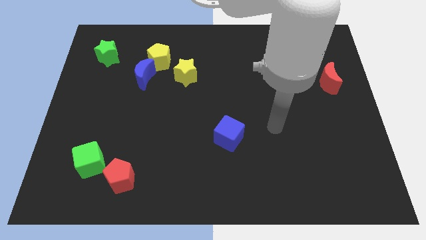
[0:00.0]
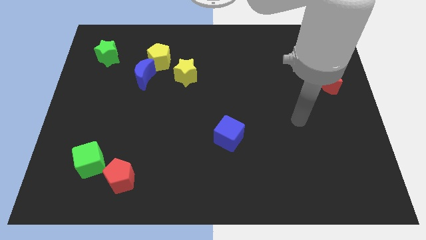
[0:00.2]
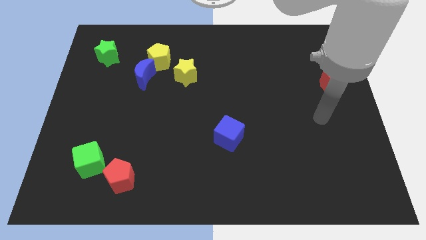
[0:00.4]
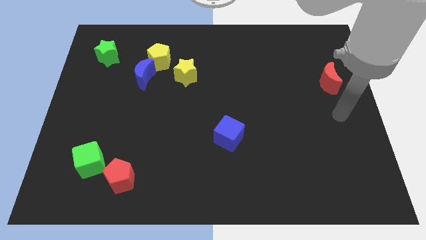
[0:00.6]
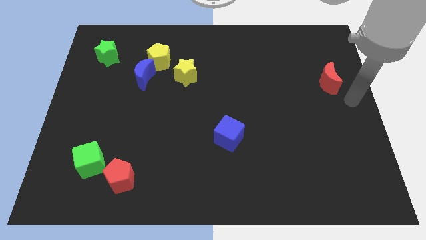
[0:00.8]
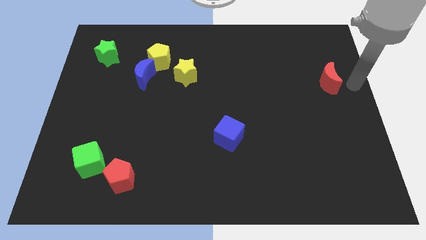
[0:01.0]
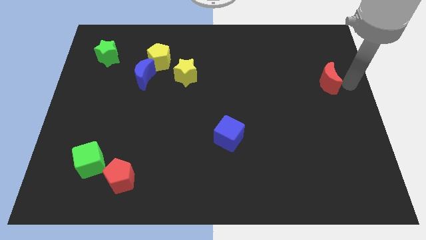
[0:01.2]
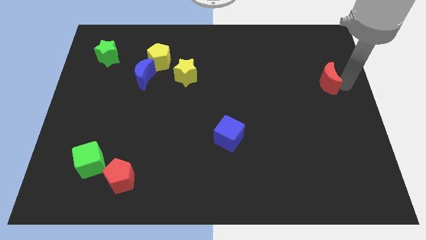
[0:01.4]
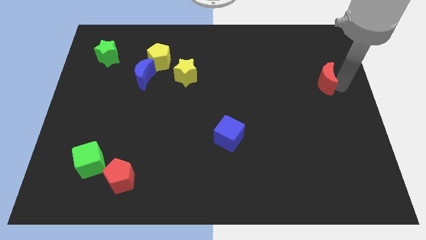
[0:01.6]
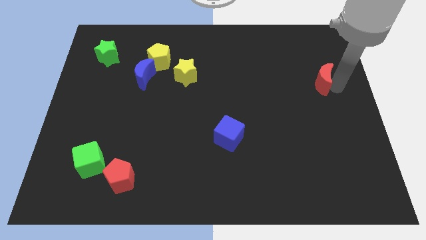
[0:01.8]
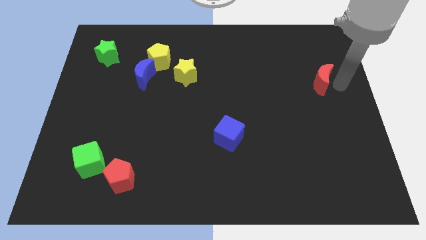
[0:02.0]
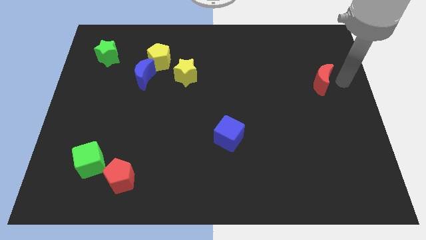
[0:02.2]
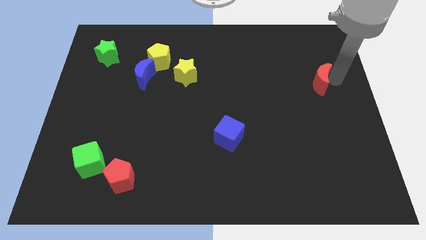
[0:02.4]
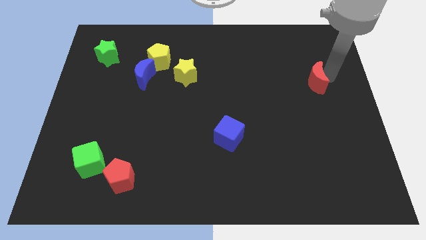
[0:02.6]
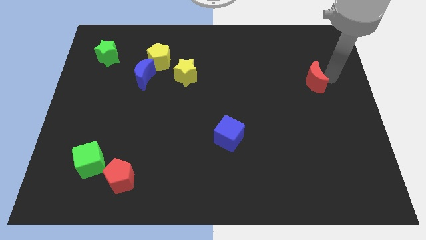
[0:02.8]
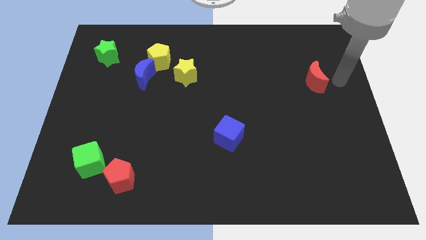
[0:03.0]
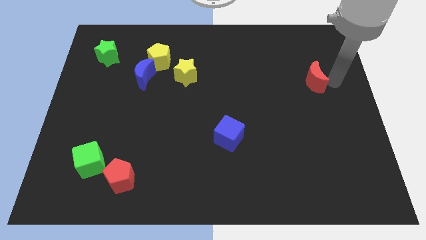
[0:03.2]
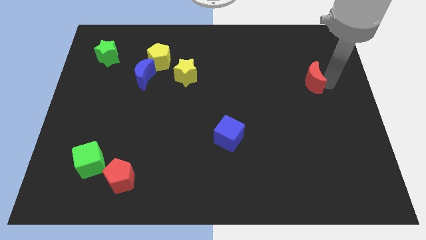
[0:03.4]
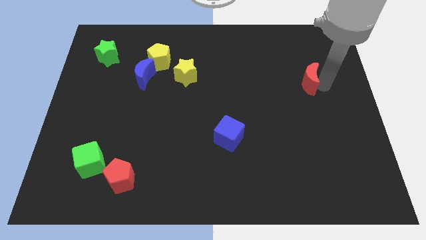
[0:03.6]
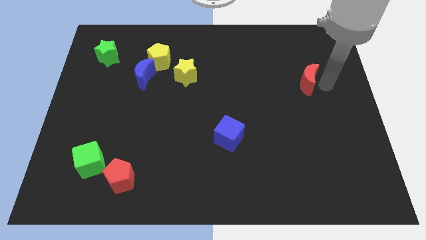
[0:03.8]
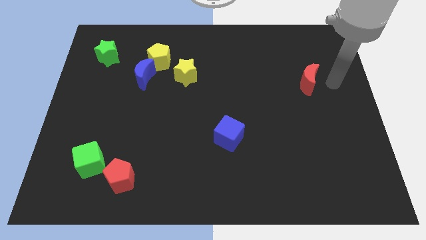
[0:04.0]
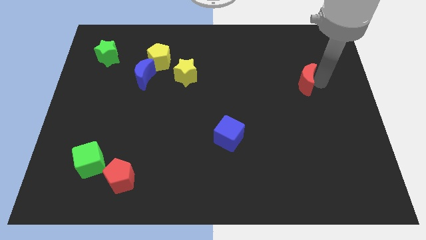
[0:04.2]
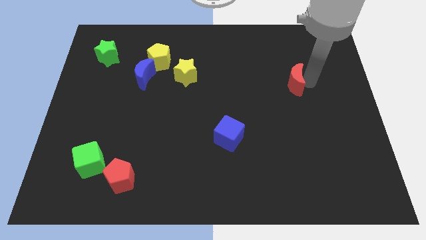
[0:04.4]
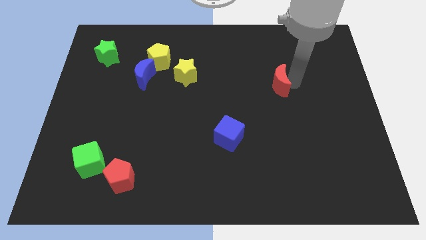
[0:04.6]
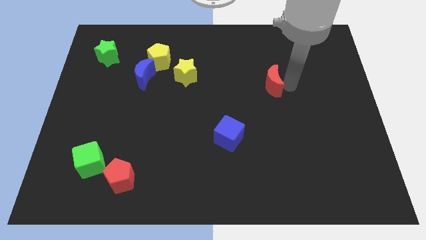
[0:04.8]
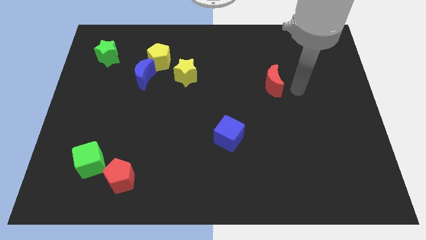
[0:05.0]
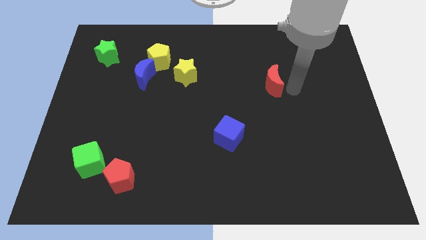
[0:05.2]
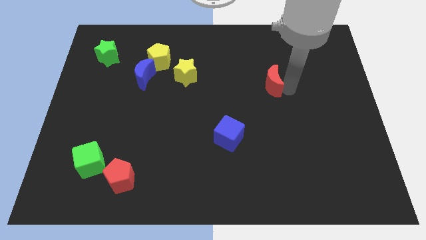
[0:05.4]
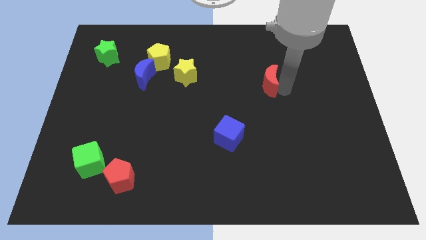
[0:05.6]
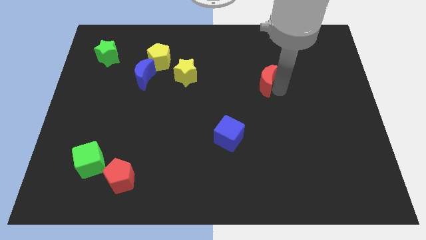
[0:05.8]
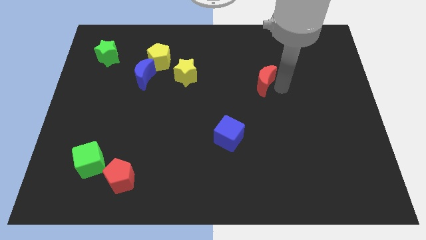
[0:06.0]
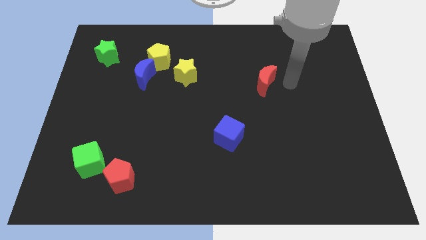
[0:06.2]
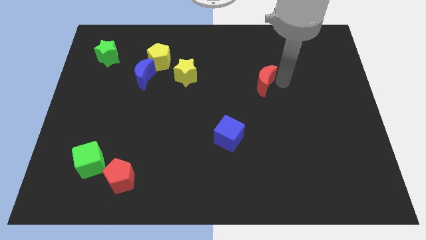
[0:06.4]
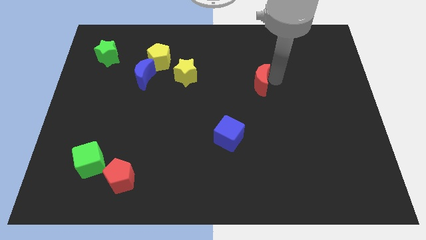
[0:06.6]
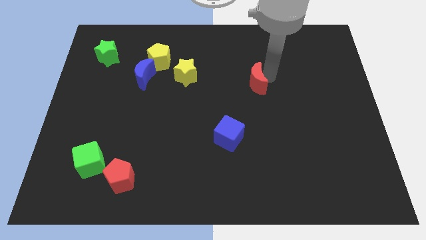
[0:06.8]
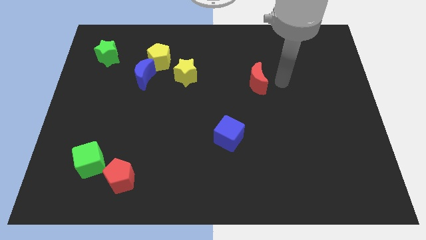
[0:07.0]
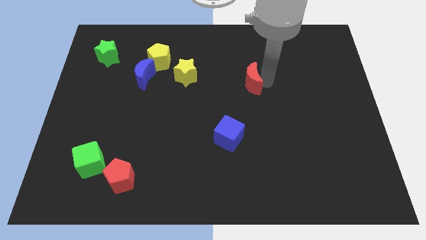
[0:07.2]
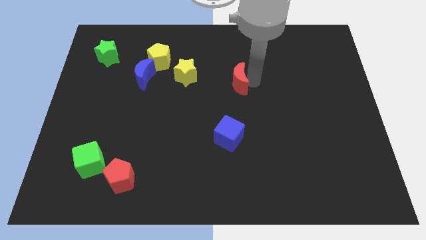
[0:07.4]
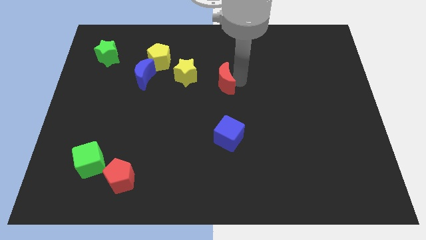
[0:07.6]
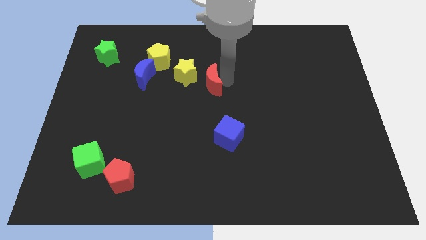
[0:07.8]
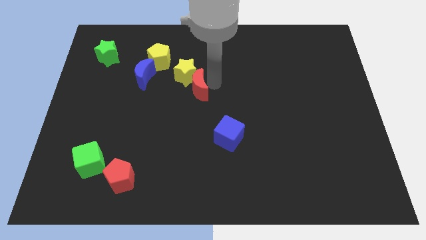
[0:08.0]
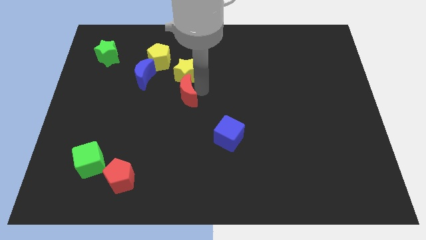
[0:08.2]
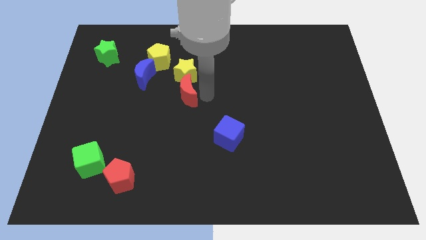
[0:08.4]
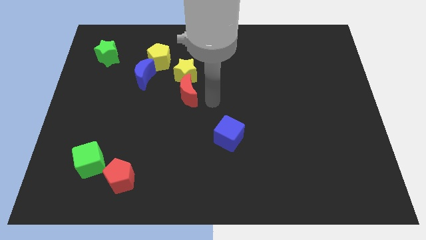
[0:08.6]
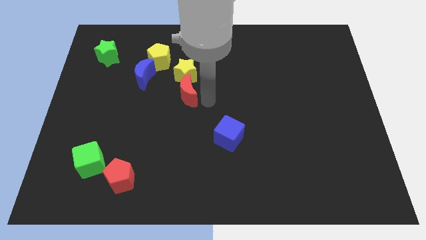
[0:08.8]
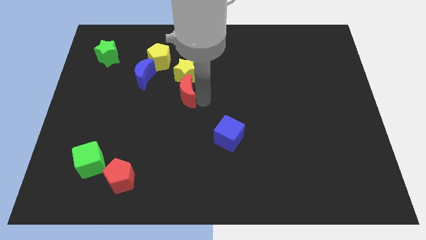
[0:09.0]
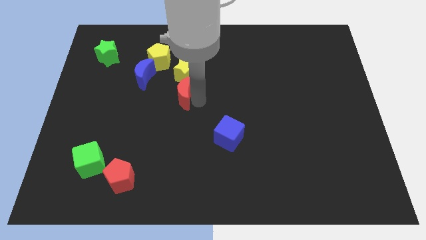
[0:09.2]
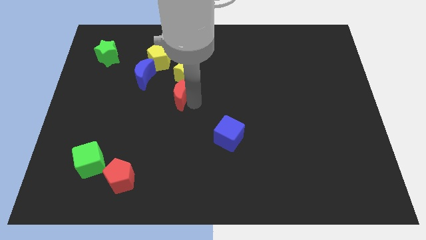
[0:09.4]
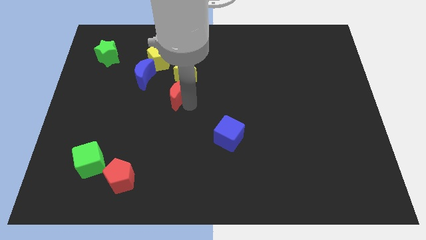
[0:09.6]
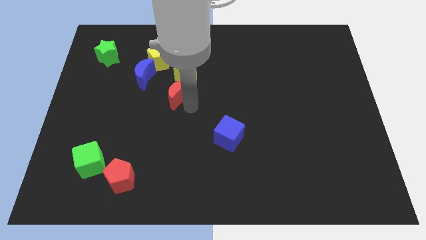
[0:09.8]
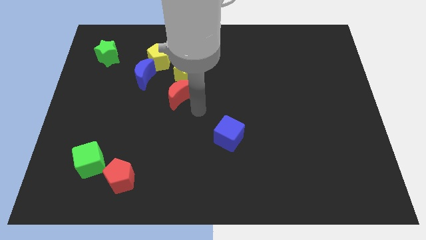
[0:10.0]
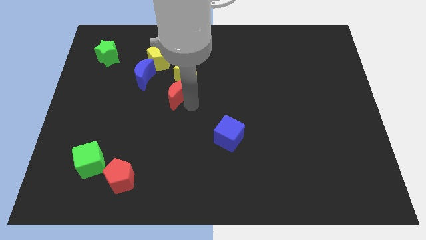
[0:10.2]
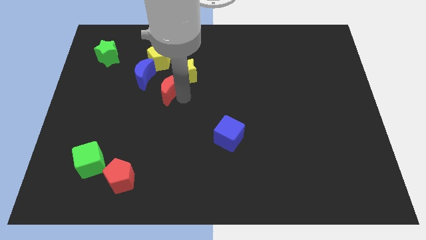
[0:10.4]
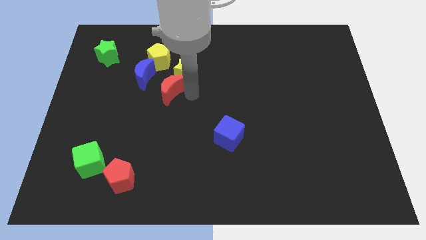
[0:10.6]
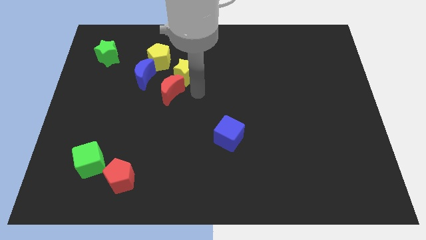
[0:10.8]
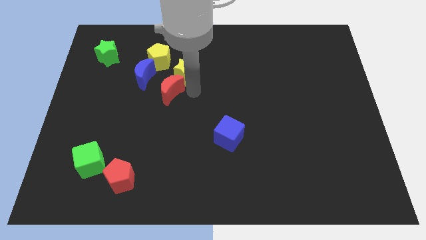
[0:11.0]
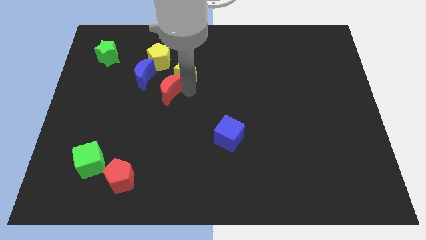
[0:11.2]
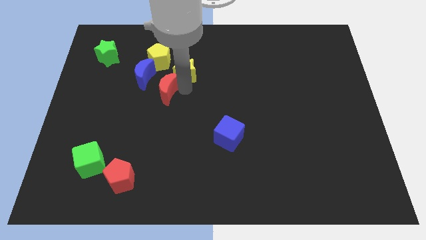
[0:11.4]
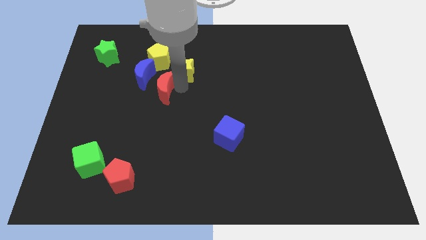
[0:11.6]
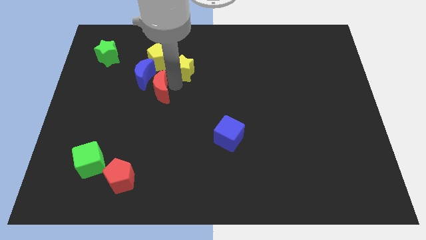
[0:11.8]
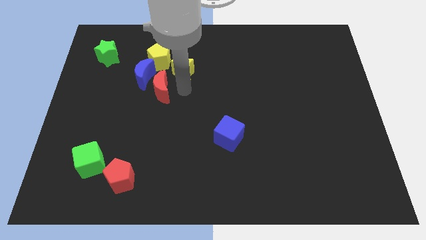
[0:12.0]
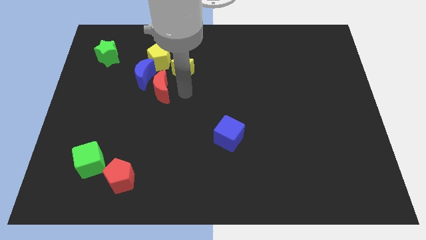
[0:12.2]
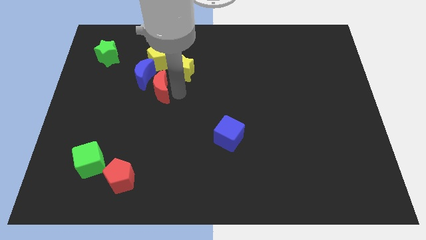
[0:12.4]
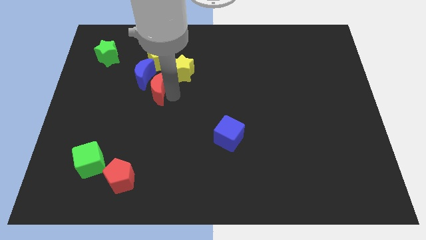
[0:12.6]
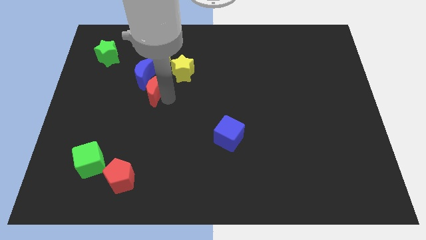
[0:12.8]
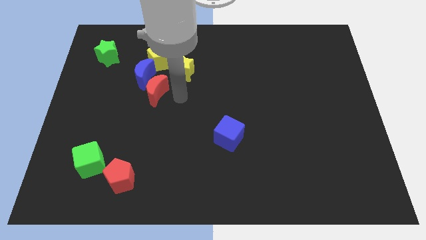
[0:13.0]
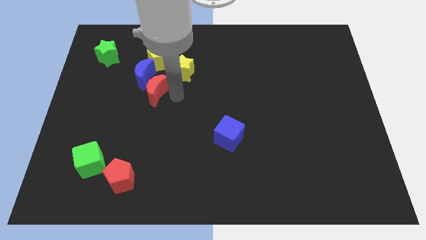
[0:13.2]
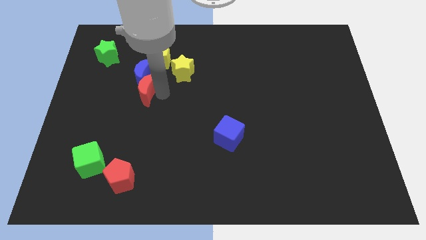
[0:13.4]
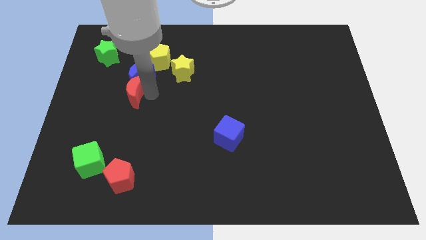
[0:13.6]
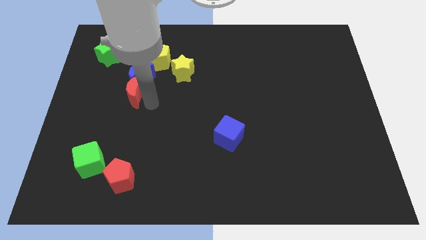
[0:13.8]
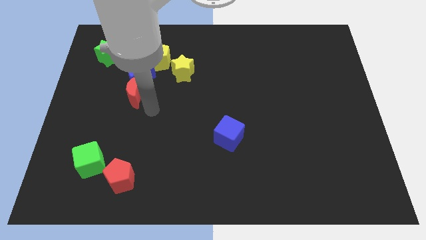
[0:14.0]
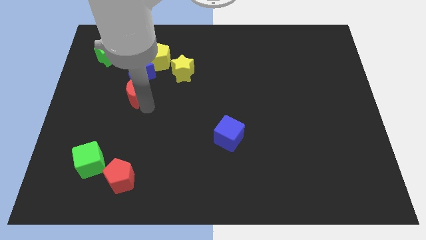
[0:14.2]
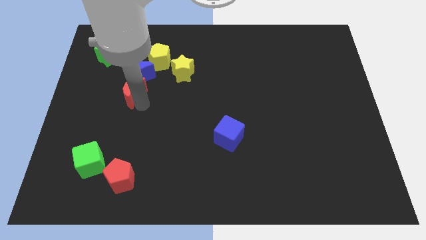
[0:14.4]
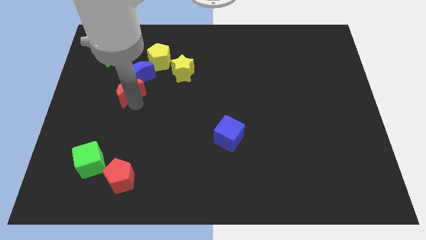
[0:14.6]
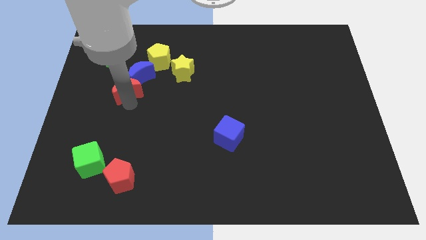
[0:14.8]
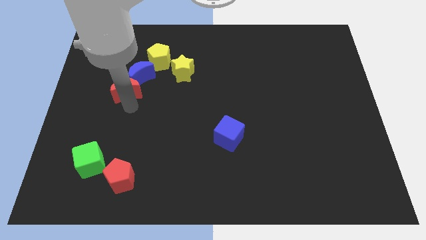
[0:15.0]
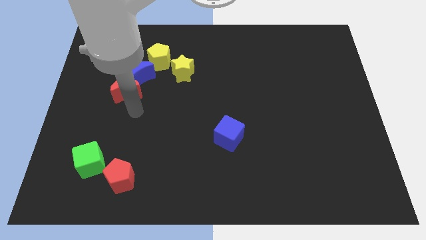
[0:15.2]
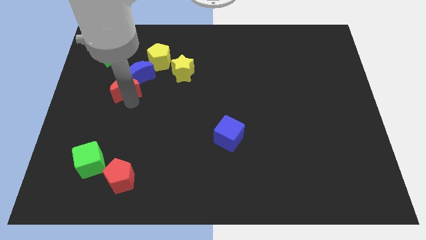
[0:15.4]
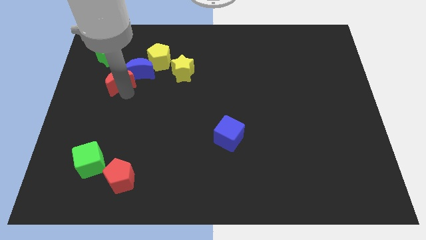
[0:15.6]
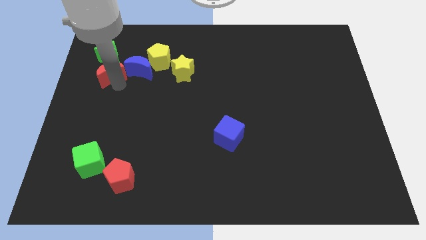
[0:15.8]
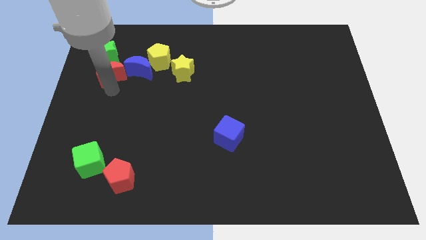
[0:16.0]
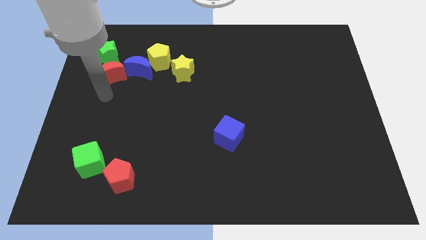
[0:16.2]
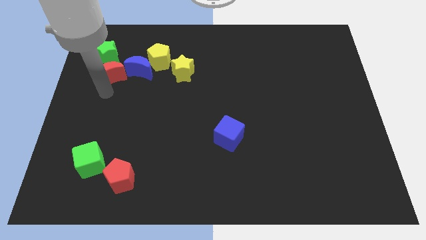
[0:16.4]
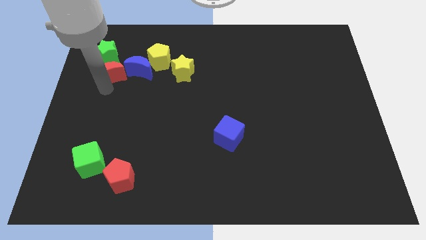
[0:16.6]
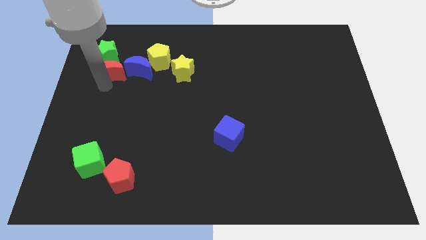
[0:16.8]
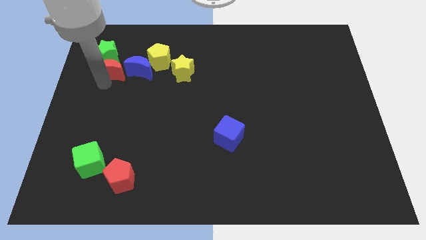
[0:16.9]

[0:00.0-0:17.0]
slide the red moon towards the green star
